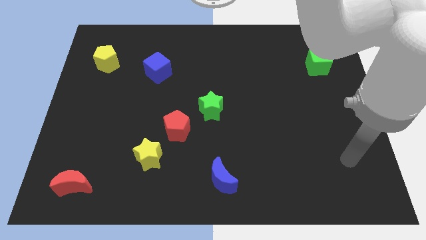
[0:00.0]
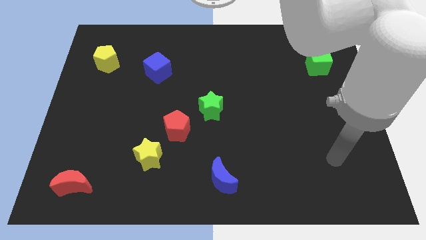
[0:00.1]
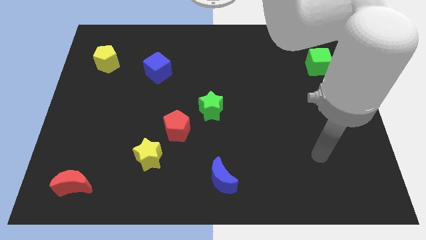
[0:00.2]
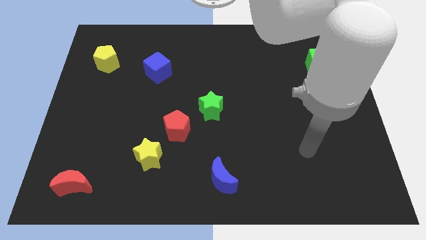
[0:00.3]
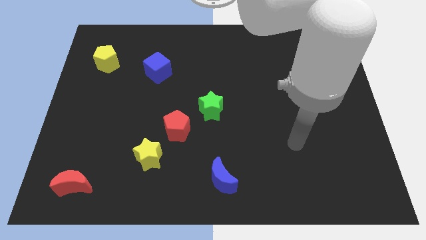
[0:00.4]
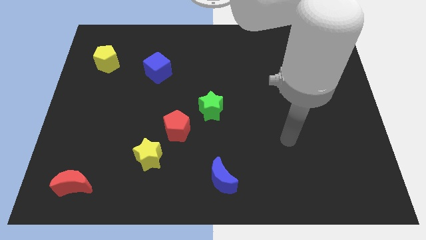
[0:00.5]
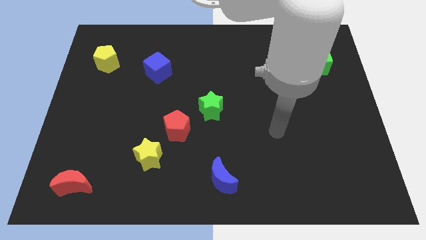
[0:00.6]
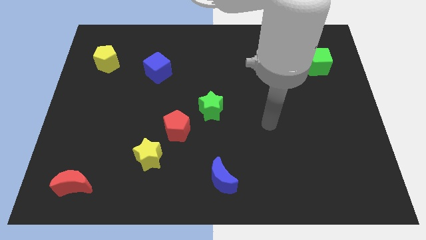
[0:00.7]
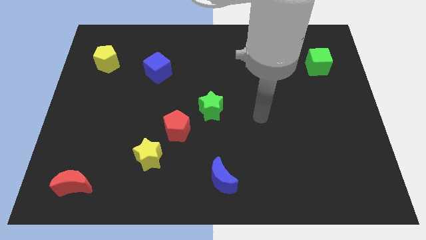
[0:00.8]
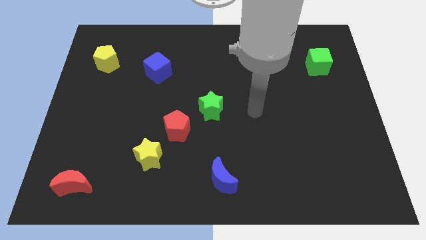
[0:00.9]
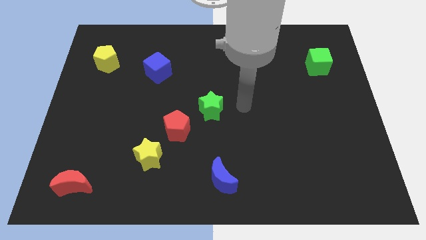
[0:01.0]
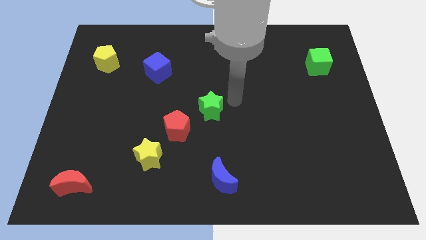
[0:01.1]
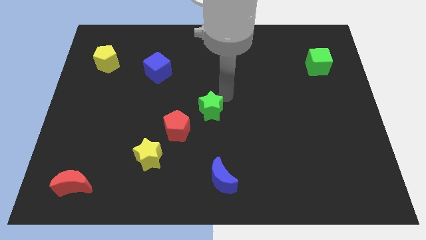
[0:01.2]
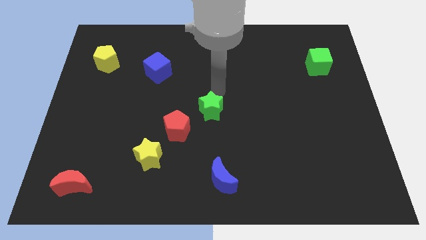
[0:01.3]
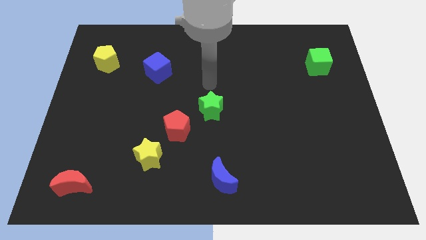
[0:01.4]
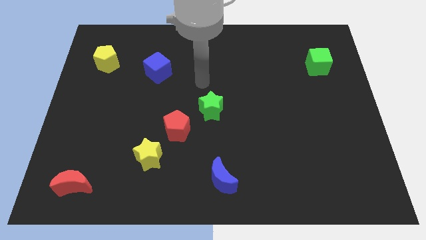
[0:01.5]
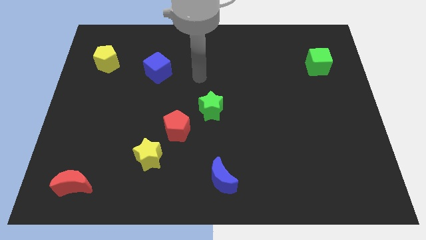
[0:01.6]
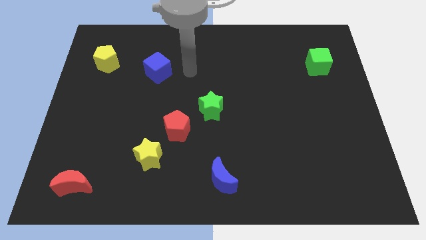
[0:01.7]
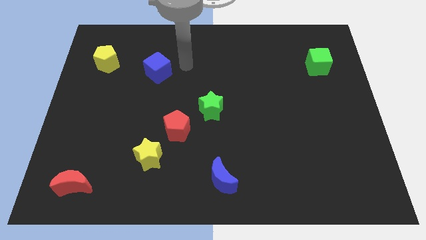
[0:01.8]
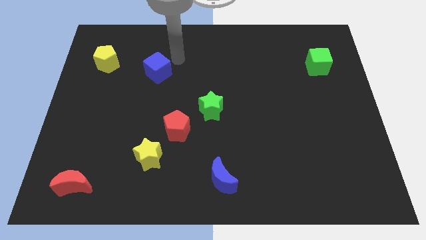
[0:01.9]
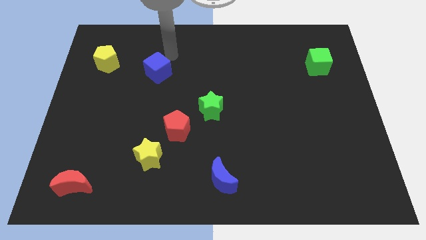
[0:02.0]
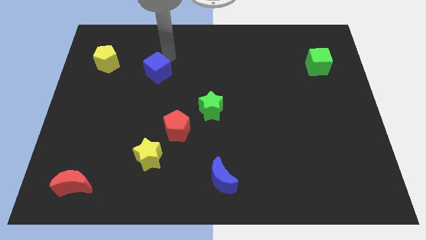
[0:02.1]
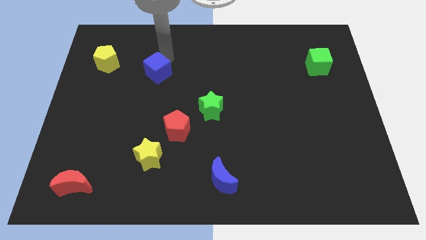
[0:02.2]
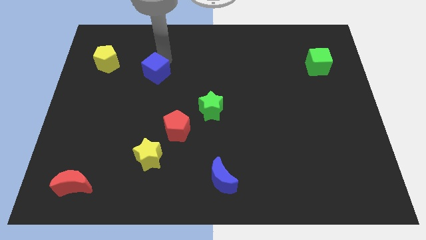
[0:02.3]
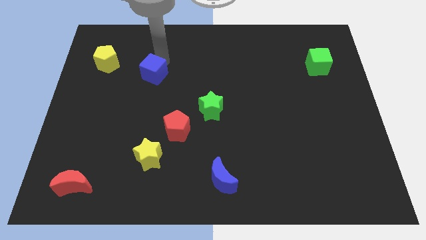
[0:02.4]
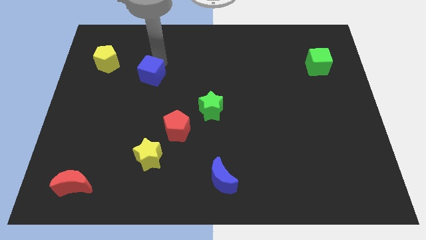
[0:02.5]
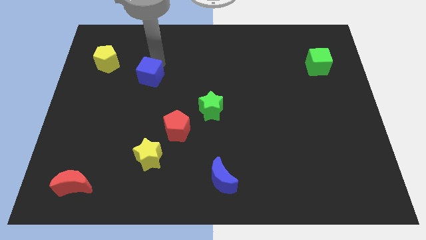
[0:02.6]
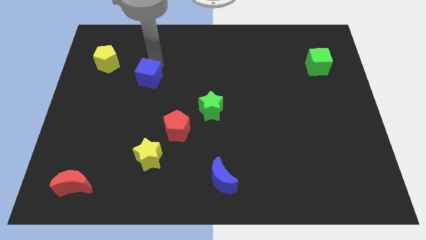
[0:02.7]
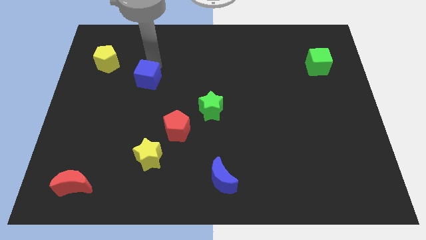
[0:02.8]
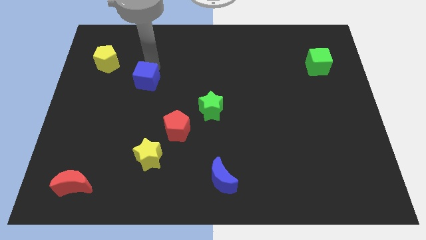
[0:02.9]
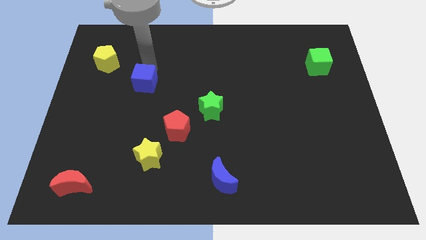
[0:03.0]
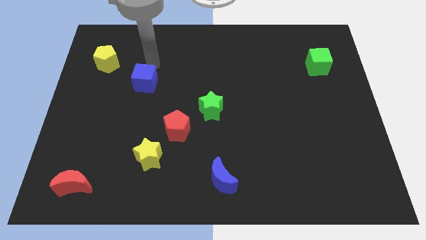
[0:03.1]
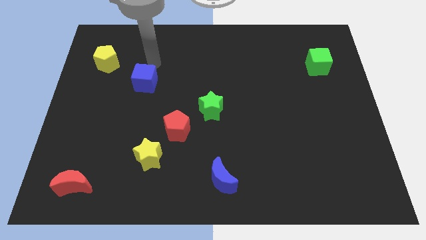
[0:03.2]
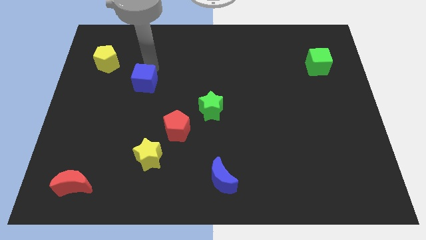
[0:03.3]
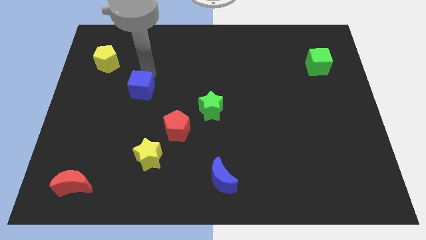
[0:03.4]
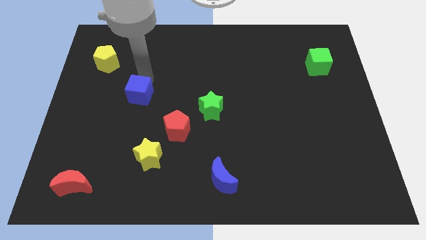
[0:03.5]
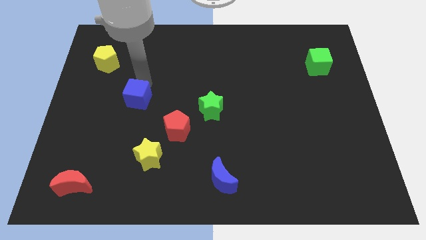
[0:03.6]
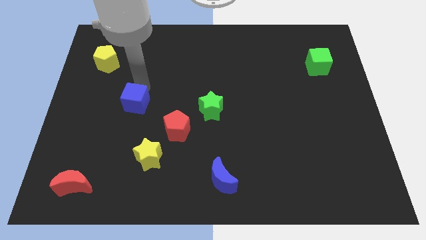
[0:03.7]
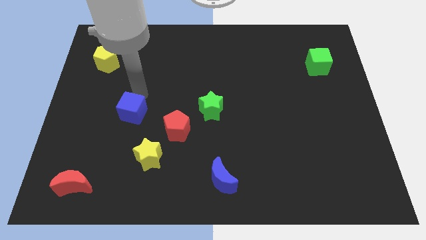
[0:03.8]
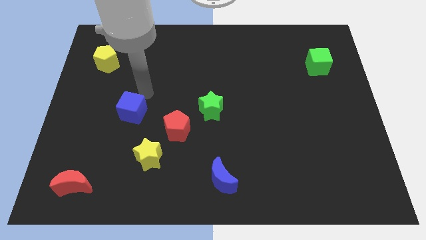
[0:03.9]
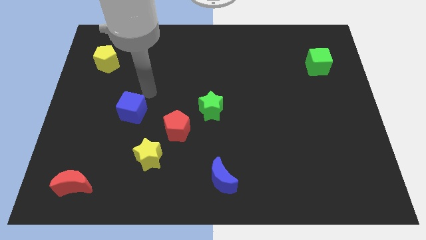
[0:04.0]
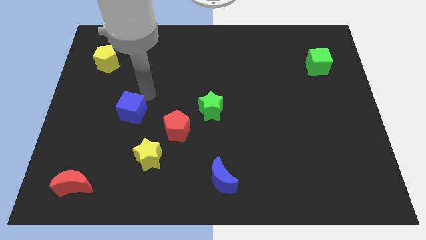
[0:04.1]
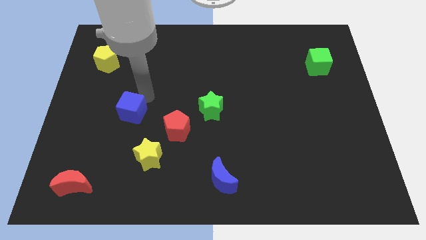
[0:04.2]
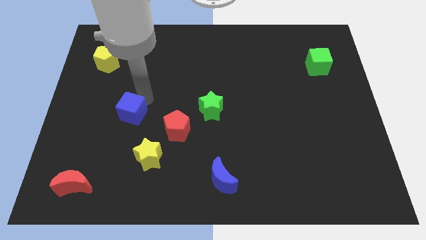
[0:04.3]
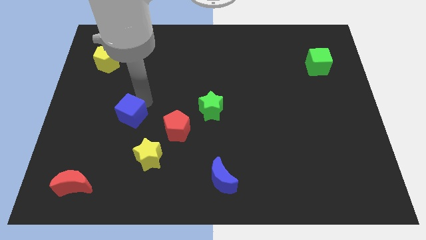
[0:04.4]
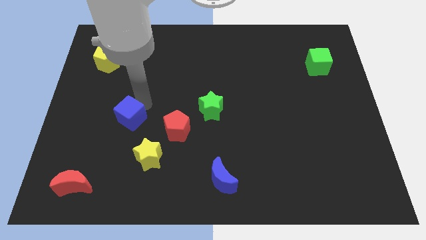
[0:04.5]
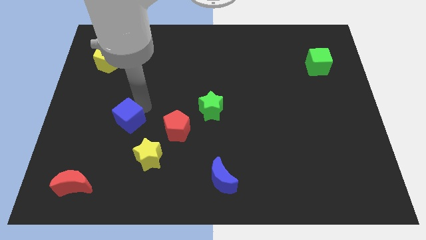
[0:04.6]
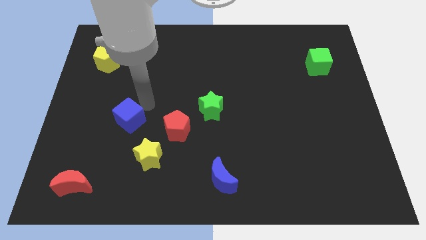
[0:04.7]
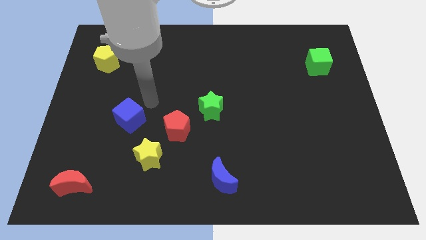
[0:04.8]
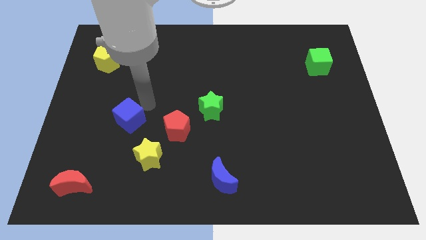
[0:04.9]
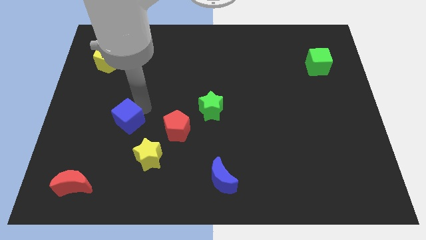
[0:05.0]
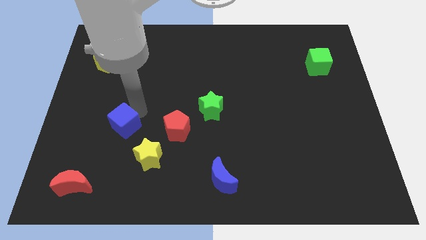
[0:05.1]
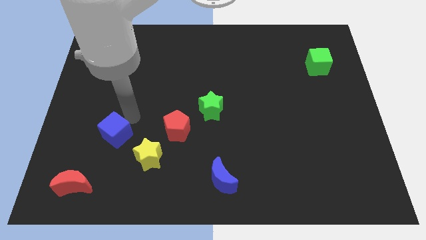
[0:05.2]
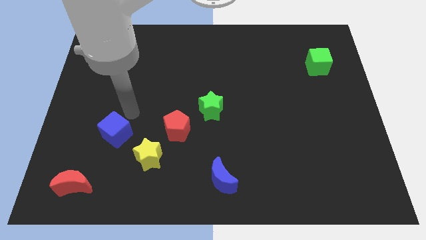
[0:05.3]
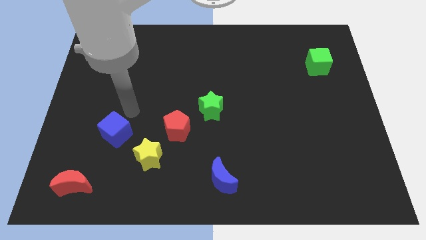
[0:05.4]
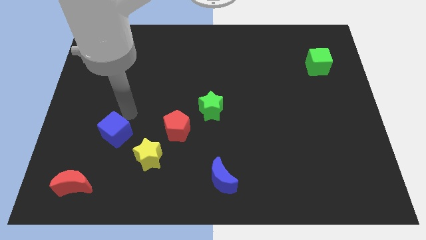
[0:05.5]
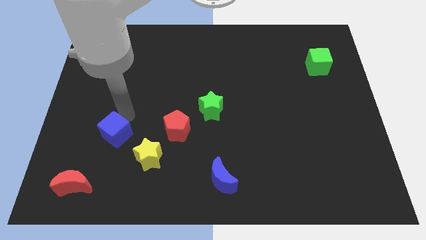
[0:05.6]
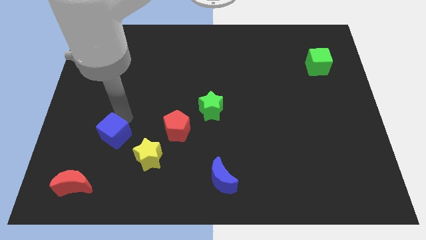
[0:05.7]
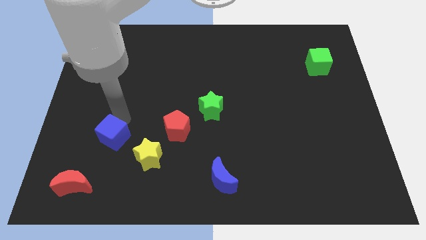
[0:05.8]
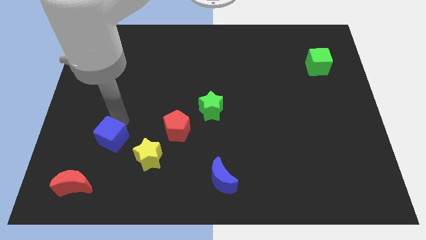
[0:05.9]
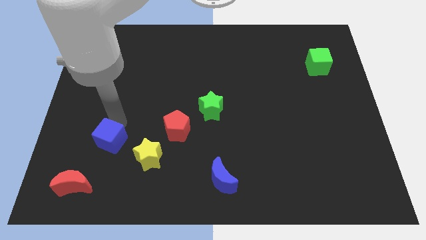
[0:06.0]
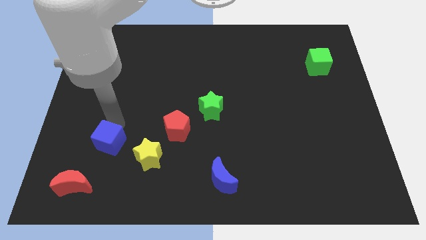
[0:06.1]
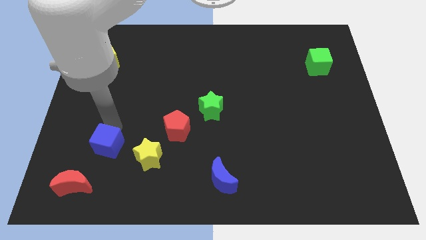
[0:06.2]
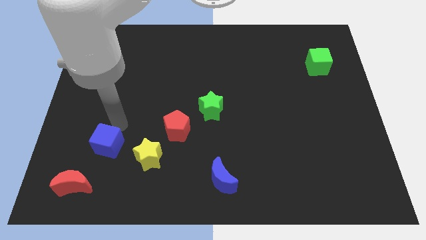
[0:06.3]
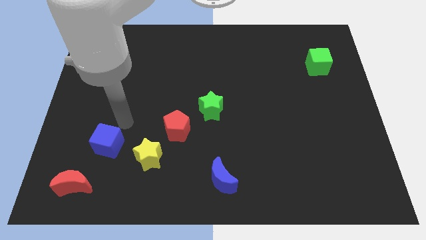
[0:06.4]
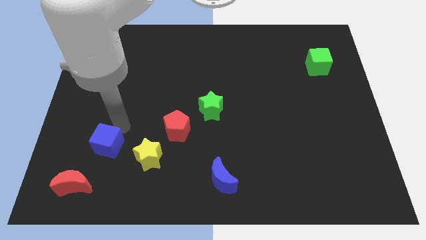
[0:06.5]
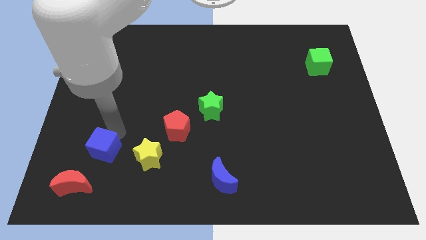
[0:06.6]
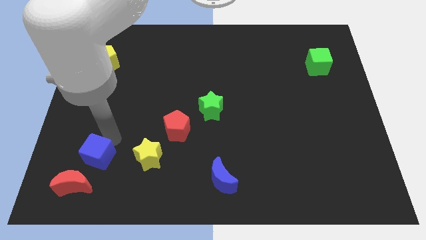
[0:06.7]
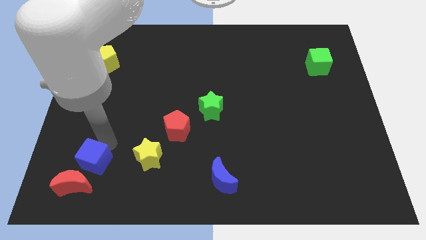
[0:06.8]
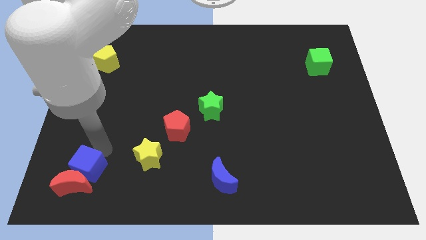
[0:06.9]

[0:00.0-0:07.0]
put the blue cube close to the red moon
